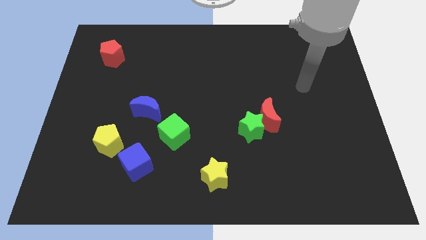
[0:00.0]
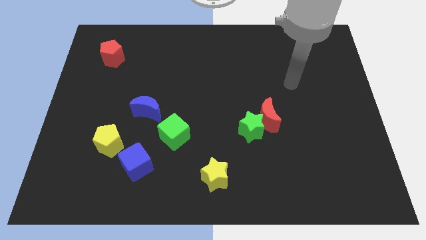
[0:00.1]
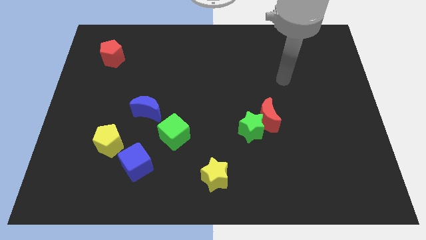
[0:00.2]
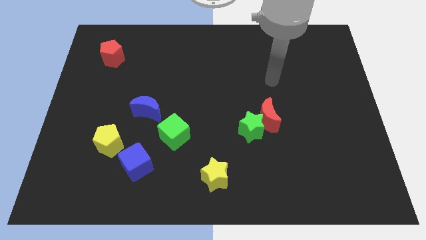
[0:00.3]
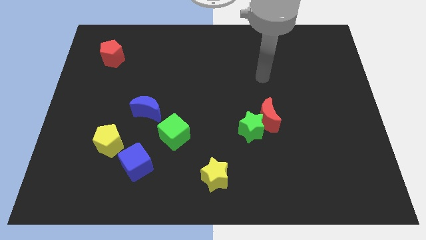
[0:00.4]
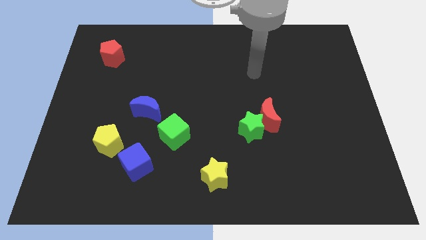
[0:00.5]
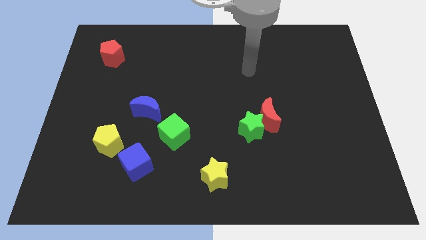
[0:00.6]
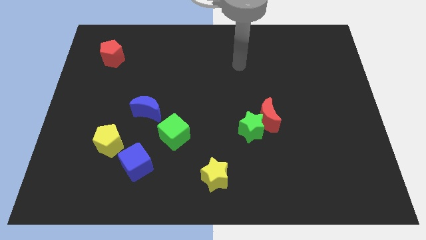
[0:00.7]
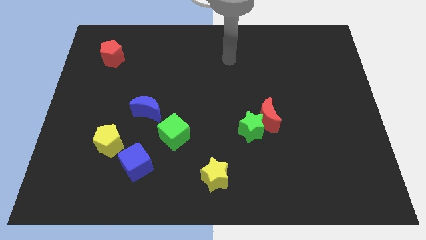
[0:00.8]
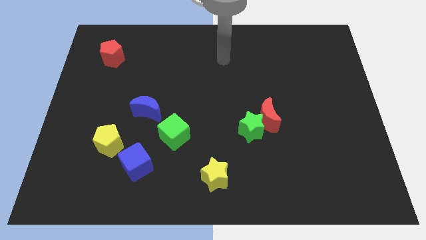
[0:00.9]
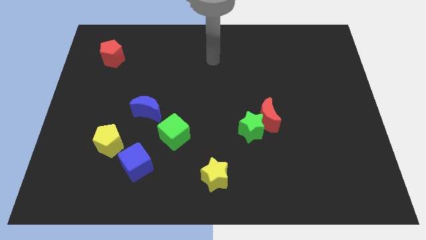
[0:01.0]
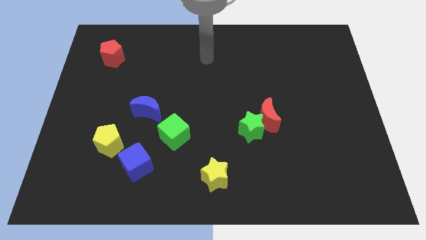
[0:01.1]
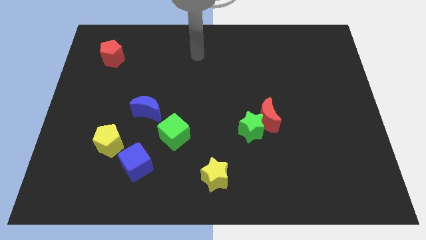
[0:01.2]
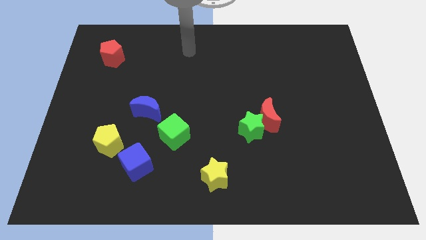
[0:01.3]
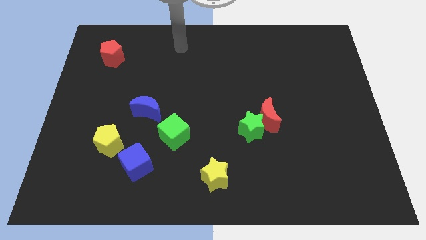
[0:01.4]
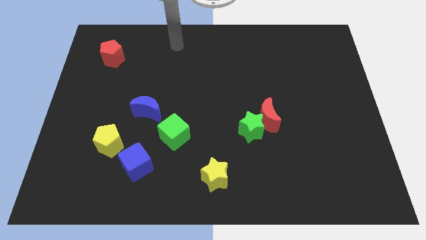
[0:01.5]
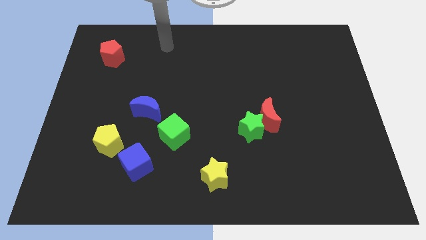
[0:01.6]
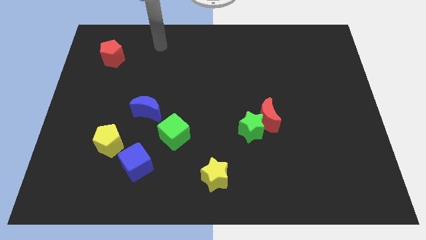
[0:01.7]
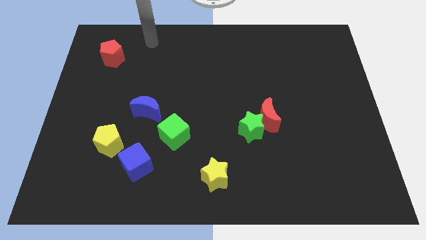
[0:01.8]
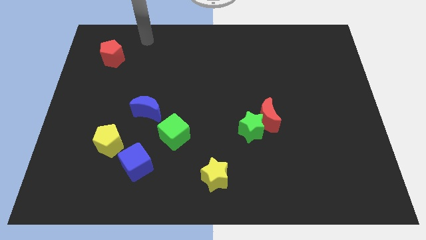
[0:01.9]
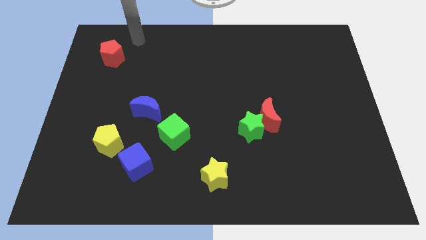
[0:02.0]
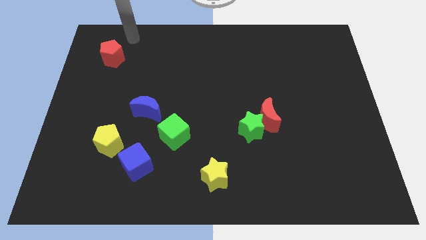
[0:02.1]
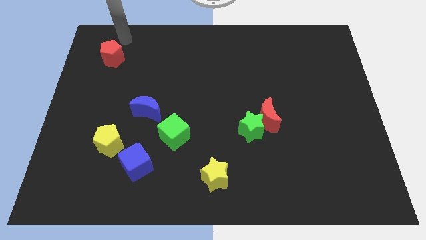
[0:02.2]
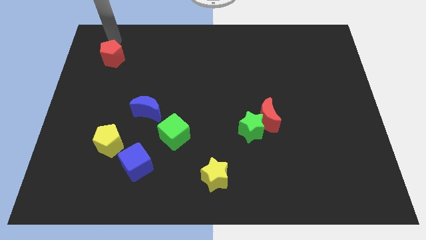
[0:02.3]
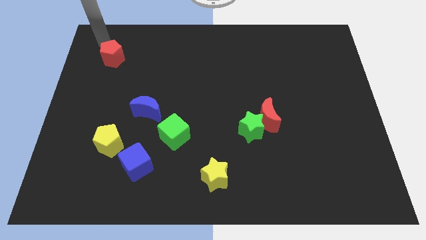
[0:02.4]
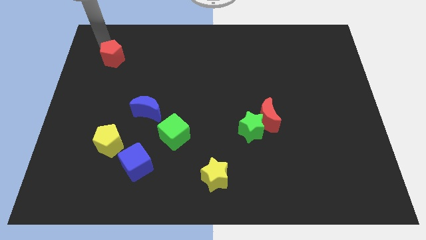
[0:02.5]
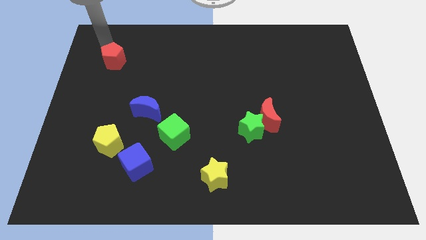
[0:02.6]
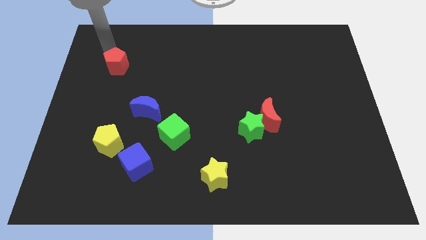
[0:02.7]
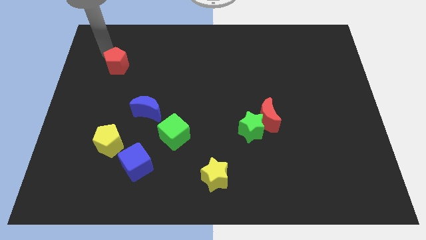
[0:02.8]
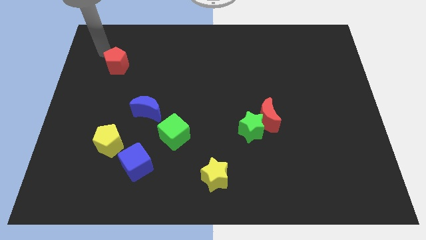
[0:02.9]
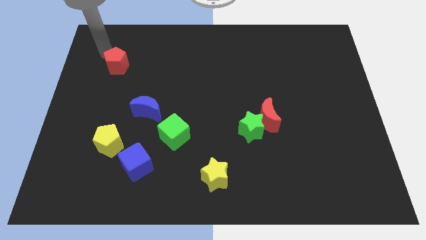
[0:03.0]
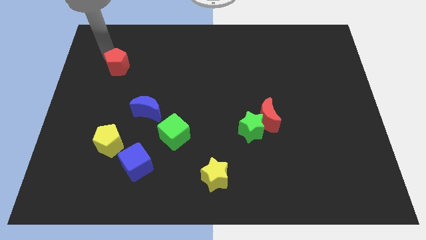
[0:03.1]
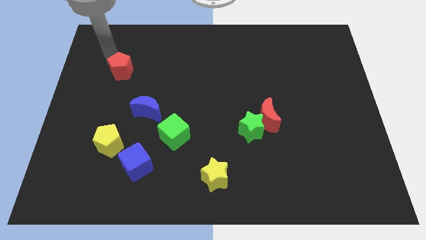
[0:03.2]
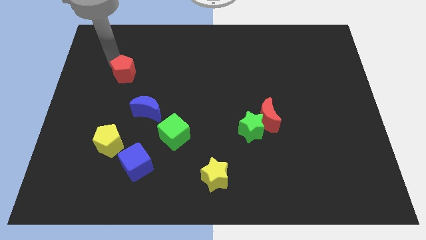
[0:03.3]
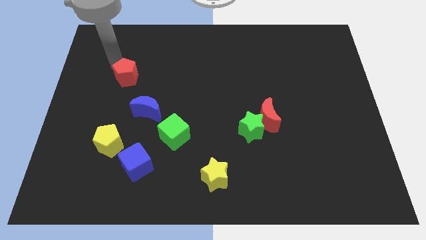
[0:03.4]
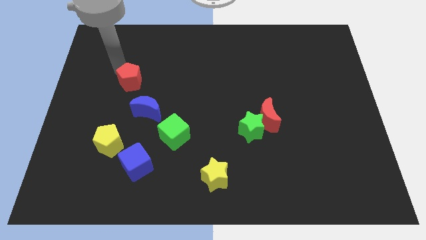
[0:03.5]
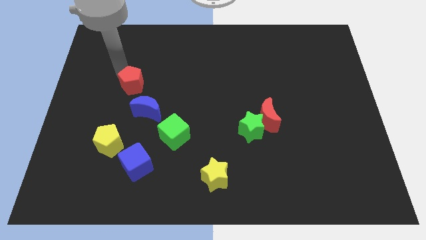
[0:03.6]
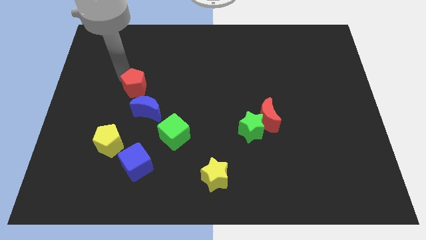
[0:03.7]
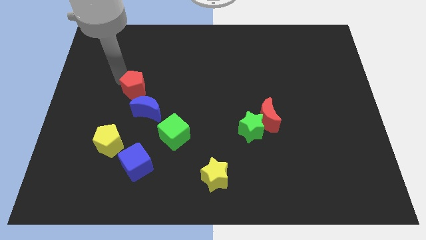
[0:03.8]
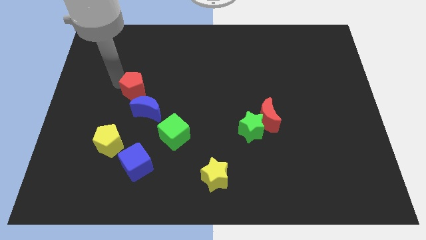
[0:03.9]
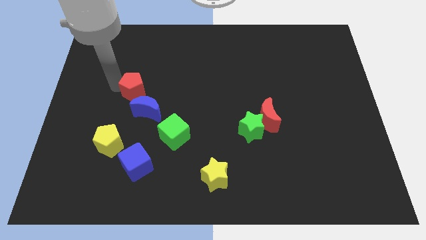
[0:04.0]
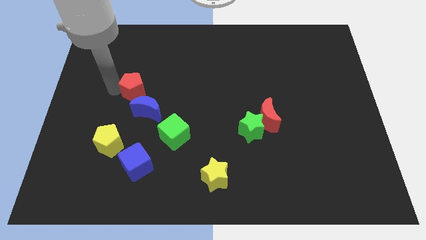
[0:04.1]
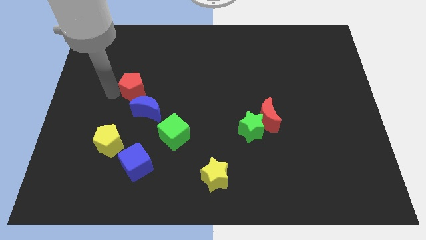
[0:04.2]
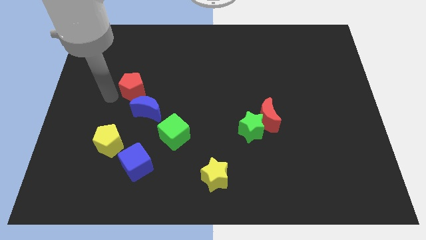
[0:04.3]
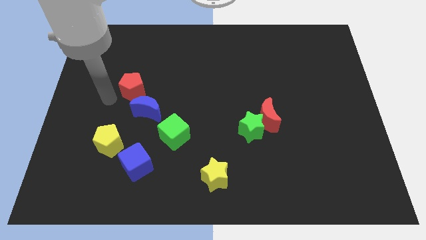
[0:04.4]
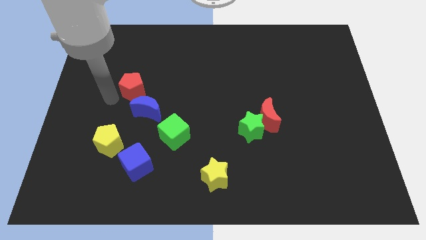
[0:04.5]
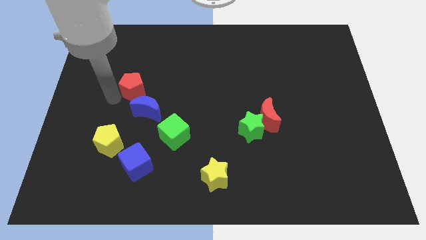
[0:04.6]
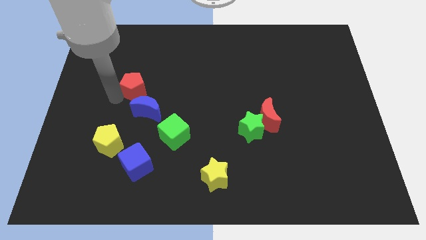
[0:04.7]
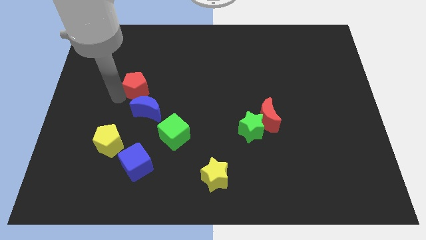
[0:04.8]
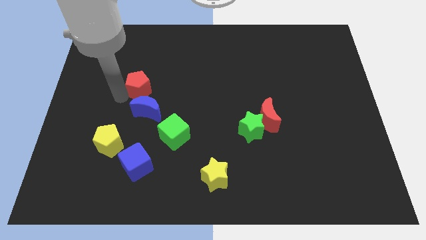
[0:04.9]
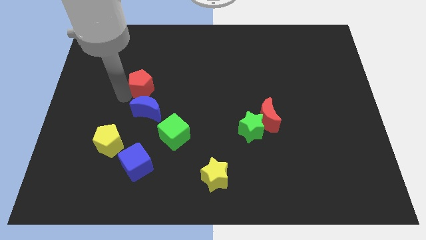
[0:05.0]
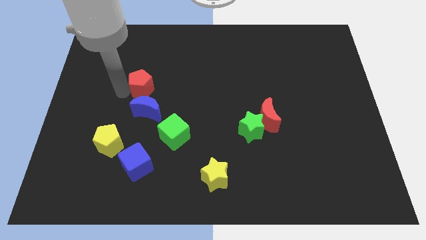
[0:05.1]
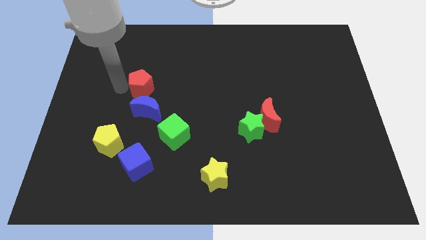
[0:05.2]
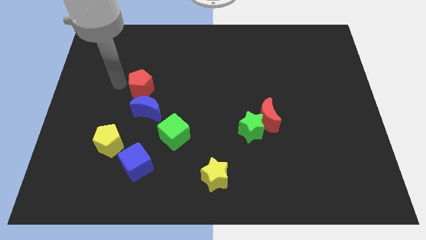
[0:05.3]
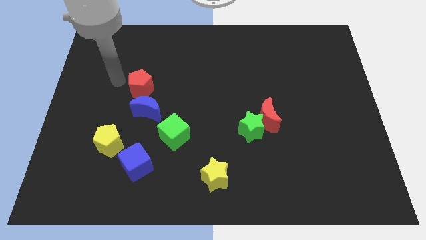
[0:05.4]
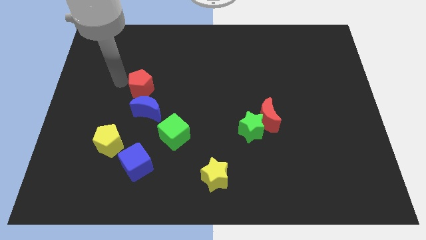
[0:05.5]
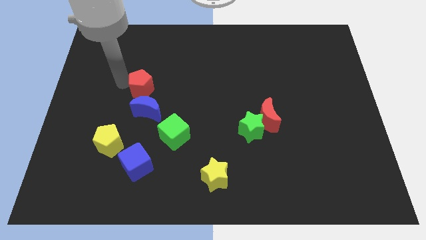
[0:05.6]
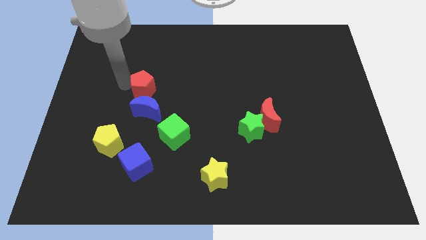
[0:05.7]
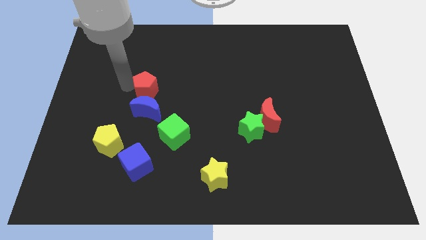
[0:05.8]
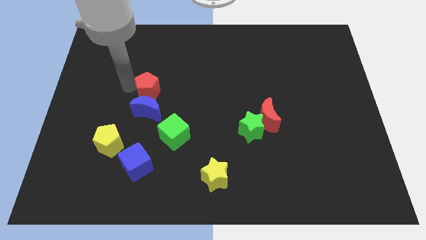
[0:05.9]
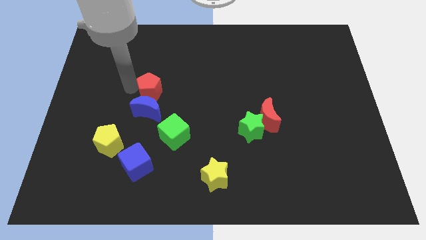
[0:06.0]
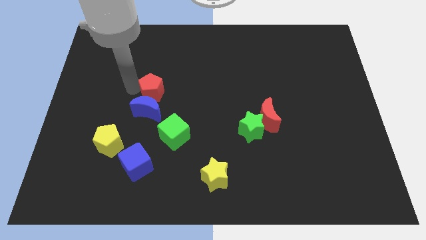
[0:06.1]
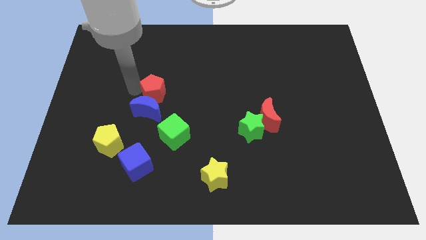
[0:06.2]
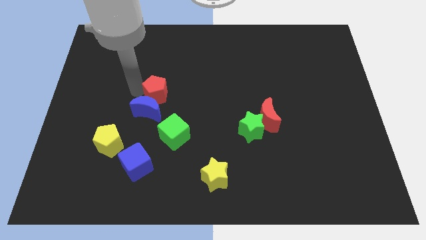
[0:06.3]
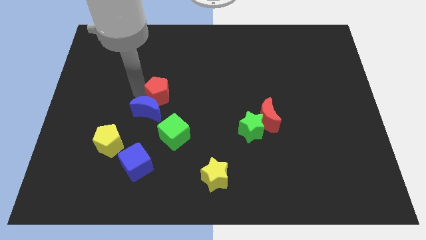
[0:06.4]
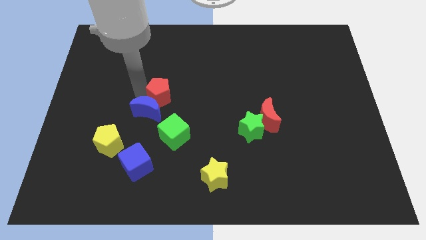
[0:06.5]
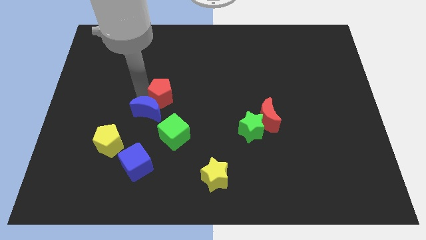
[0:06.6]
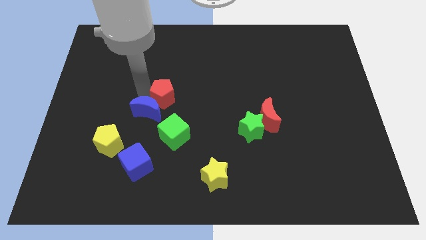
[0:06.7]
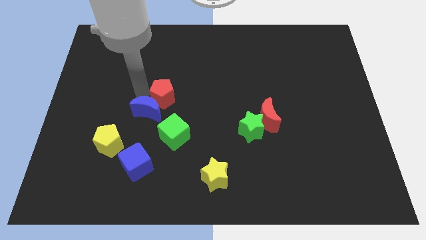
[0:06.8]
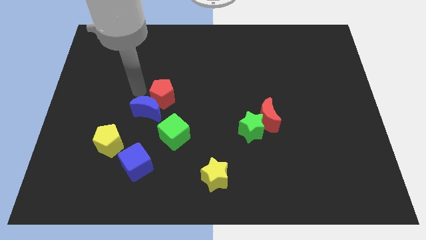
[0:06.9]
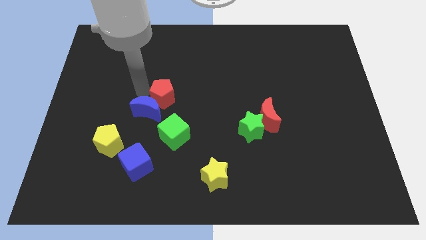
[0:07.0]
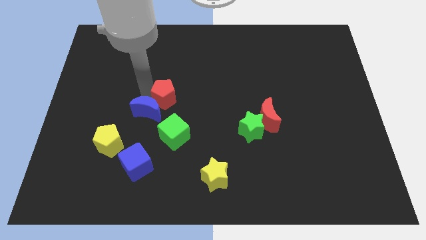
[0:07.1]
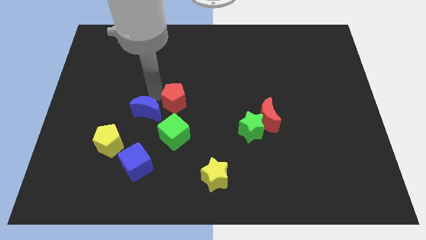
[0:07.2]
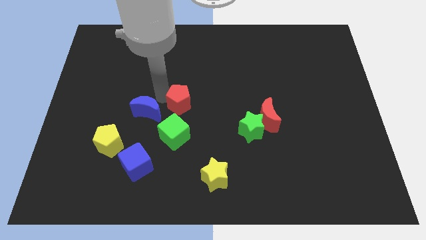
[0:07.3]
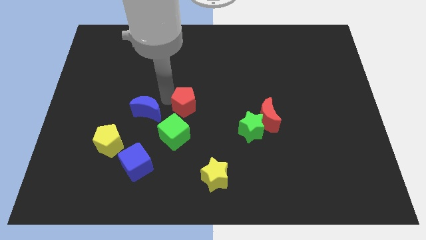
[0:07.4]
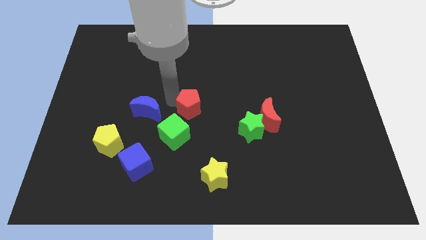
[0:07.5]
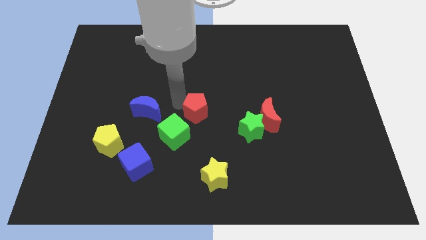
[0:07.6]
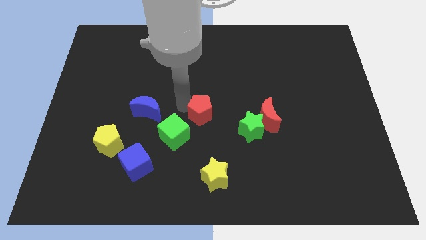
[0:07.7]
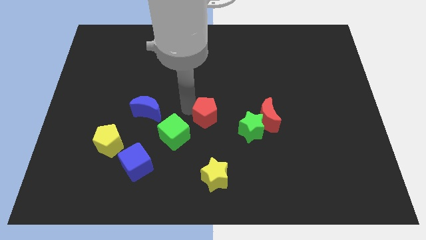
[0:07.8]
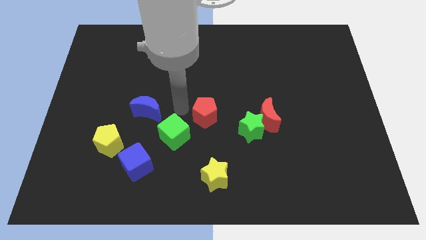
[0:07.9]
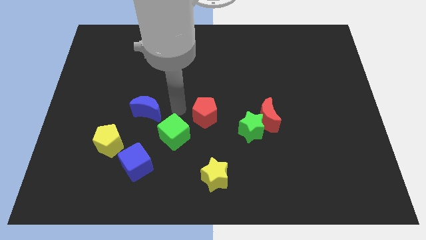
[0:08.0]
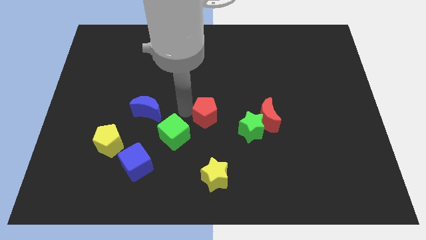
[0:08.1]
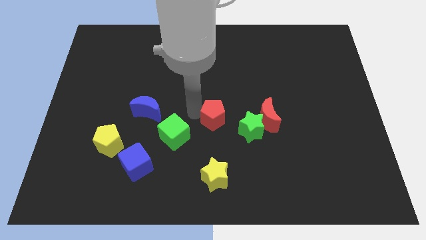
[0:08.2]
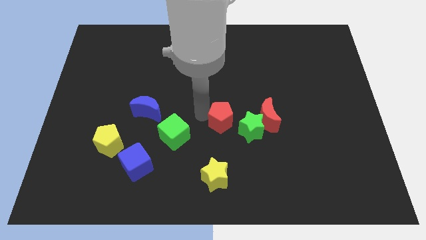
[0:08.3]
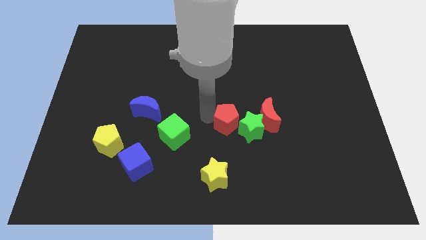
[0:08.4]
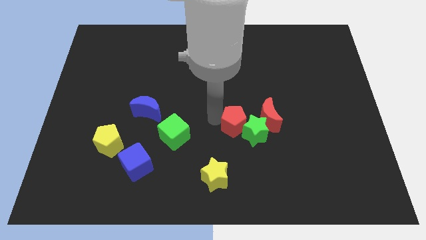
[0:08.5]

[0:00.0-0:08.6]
put the red pentagon next to the green star
